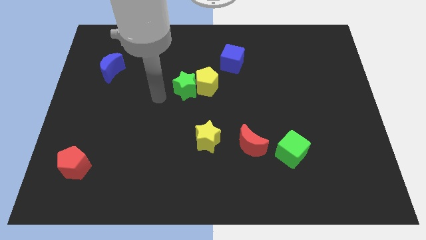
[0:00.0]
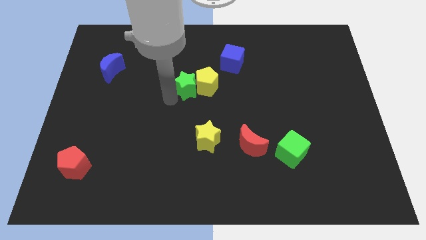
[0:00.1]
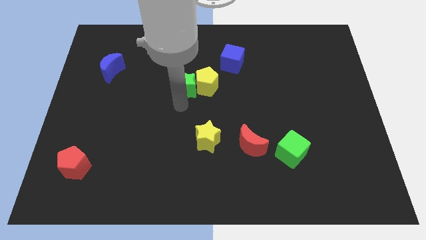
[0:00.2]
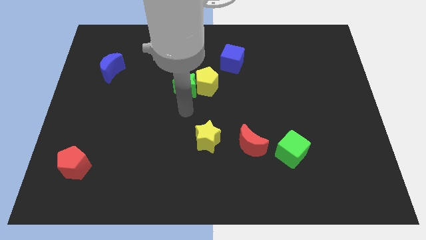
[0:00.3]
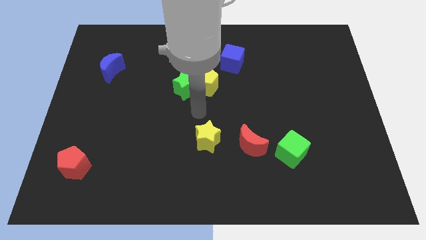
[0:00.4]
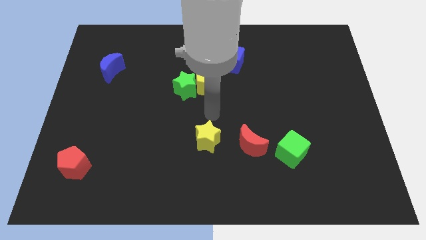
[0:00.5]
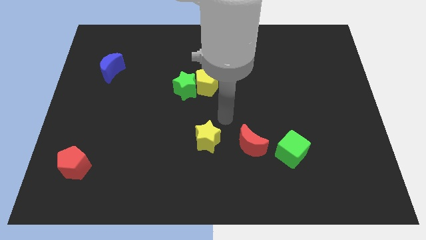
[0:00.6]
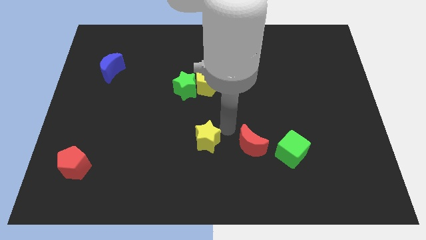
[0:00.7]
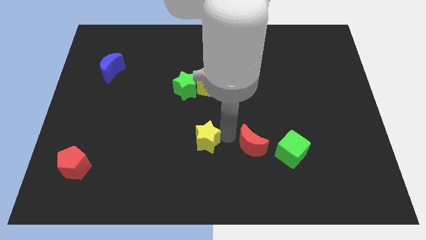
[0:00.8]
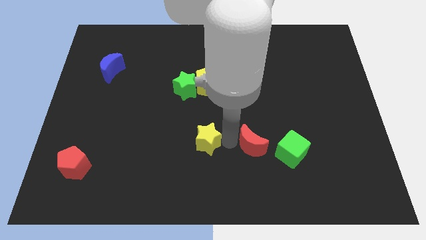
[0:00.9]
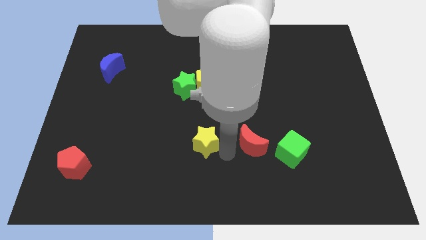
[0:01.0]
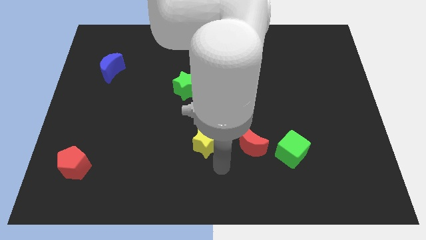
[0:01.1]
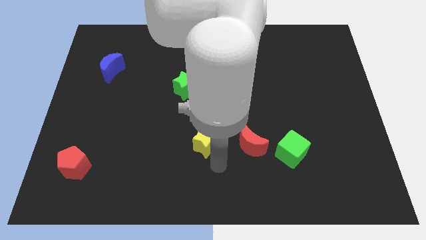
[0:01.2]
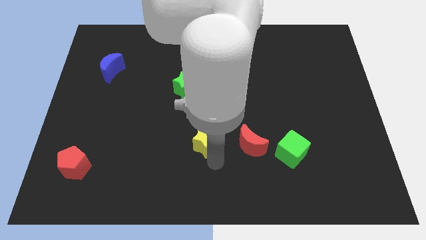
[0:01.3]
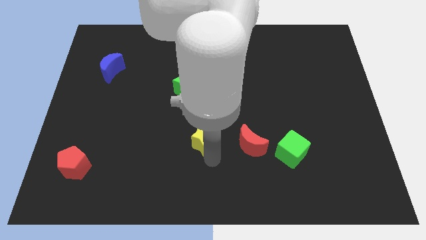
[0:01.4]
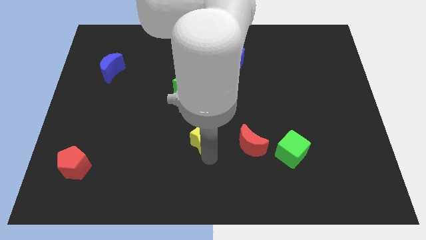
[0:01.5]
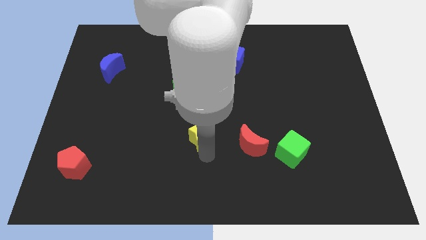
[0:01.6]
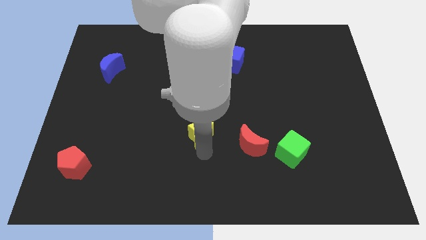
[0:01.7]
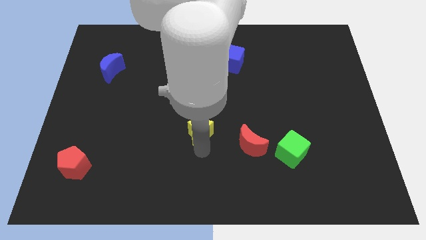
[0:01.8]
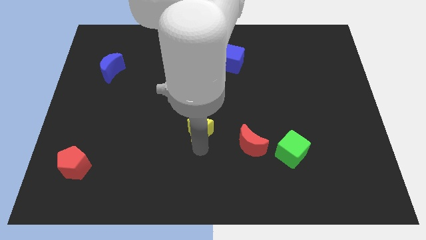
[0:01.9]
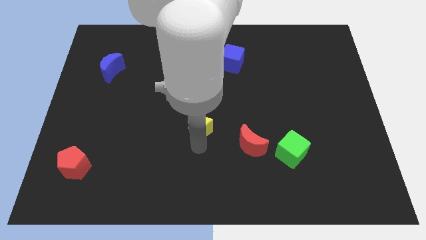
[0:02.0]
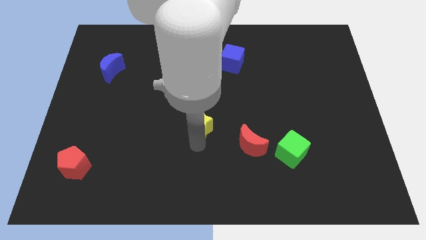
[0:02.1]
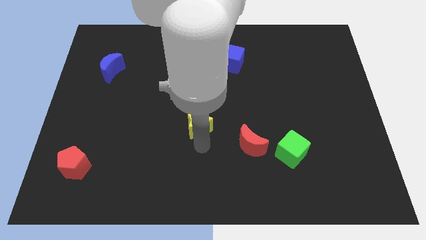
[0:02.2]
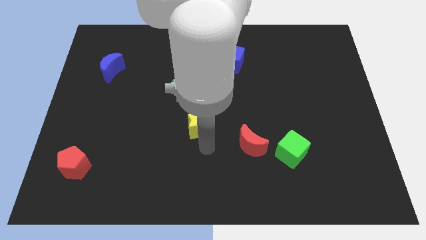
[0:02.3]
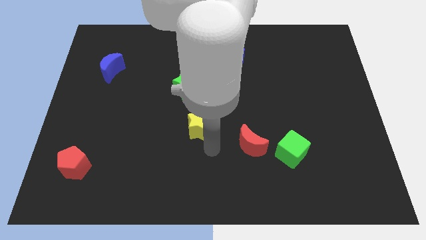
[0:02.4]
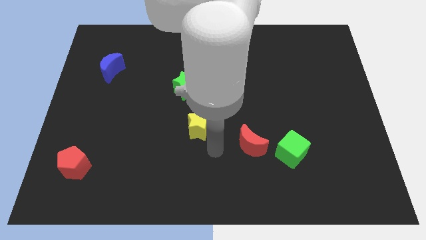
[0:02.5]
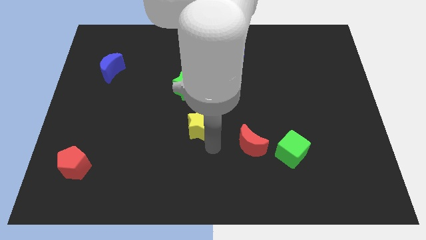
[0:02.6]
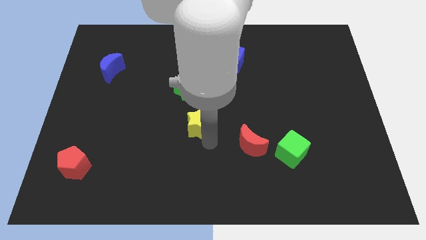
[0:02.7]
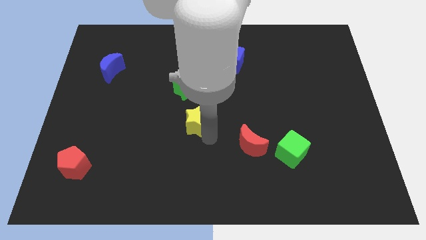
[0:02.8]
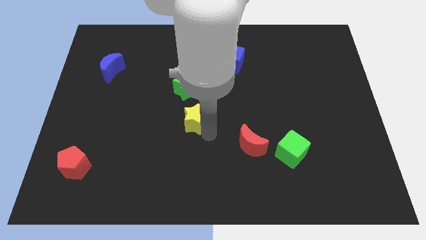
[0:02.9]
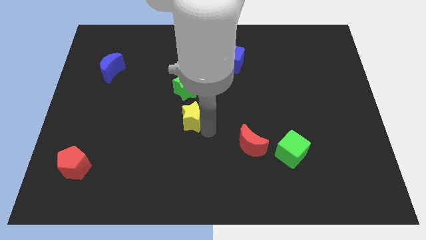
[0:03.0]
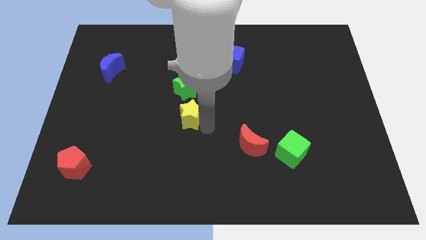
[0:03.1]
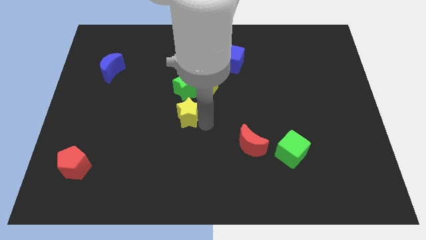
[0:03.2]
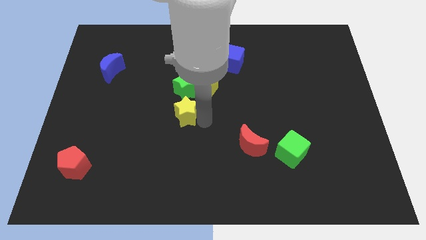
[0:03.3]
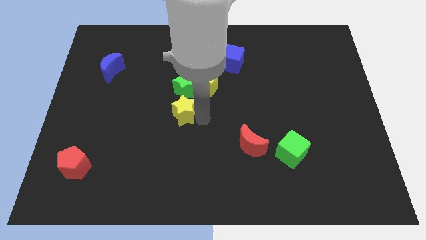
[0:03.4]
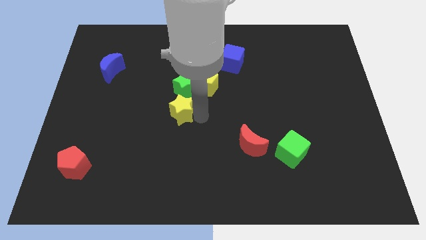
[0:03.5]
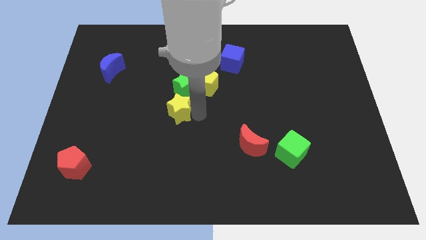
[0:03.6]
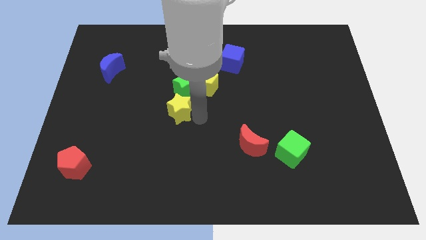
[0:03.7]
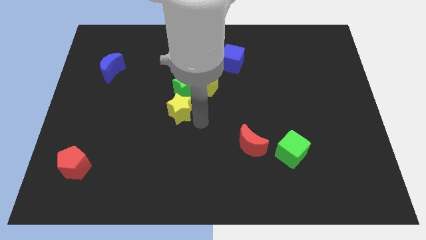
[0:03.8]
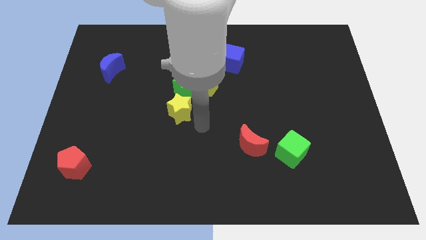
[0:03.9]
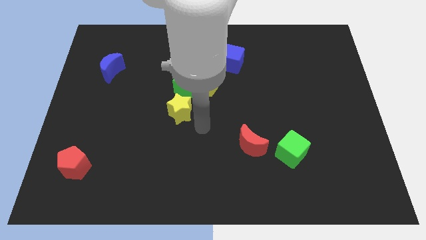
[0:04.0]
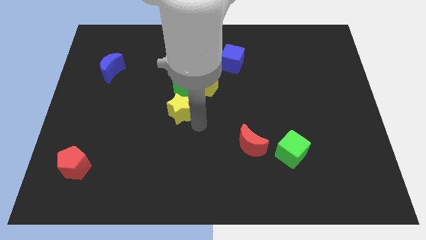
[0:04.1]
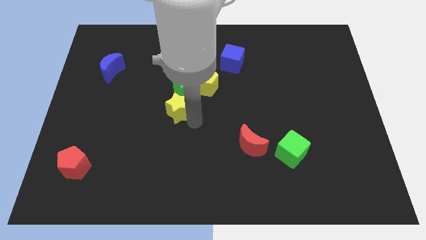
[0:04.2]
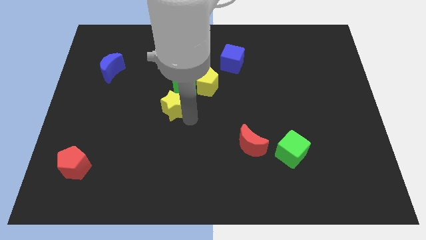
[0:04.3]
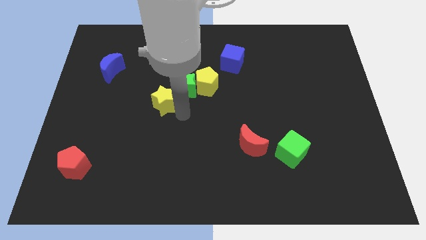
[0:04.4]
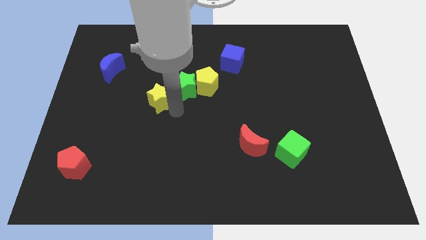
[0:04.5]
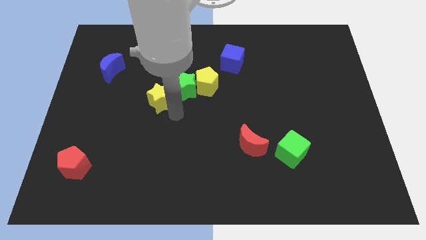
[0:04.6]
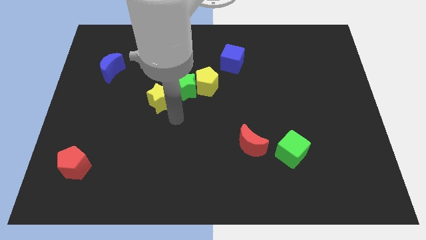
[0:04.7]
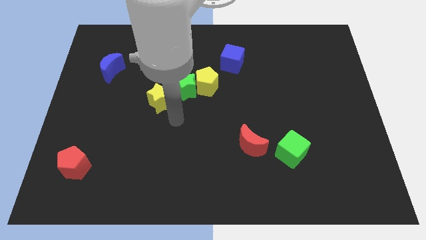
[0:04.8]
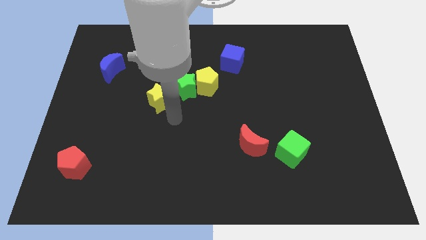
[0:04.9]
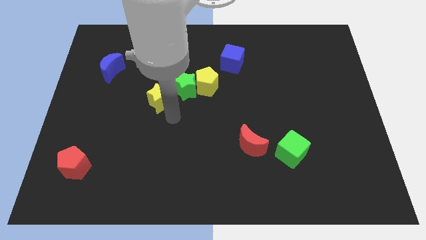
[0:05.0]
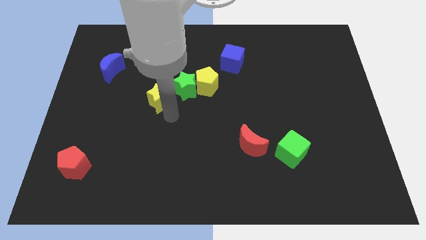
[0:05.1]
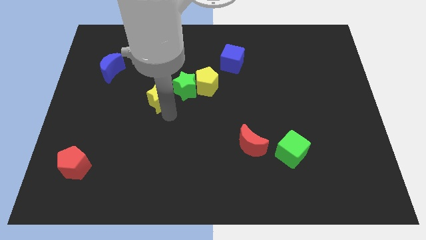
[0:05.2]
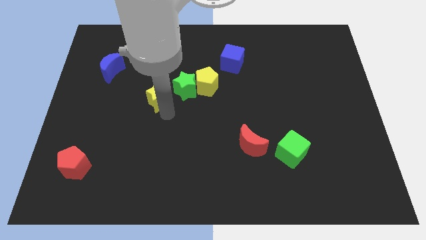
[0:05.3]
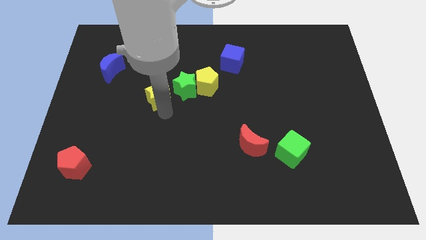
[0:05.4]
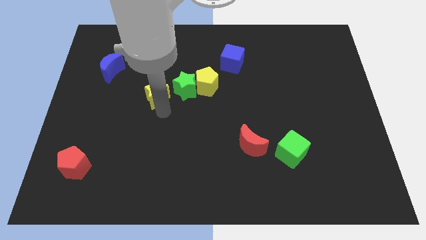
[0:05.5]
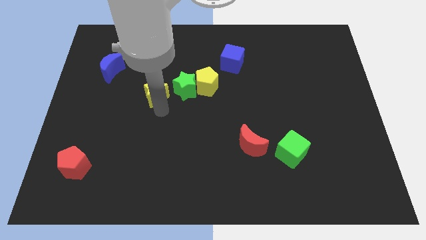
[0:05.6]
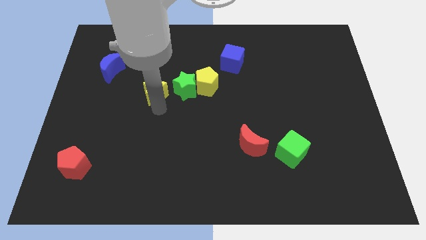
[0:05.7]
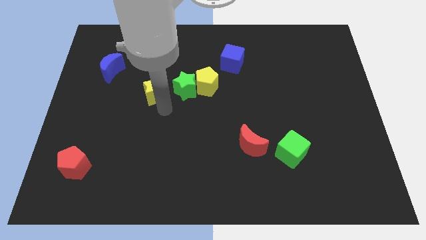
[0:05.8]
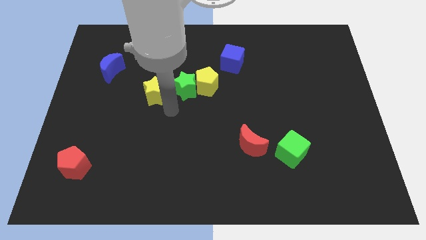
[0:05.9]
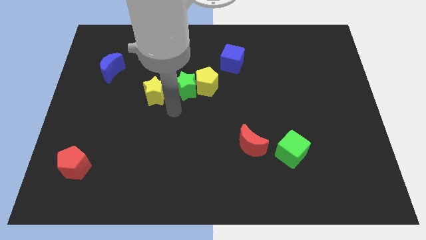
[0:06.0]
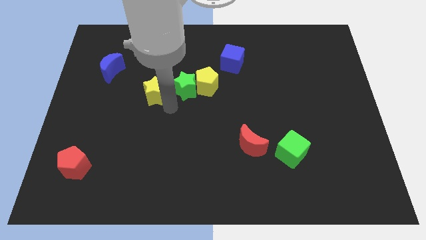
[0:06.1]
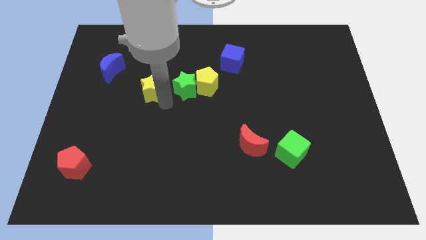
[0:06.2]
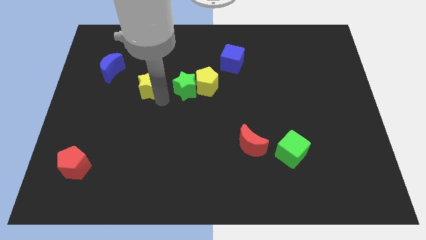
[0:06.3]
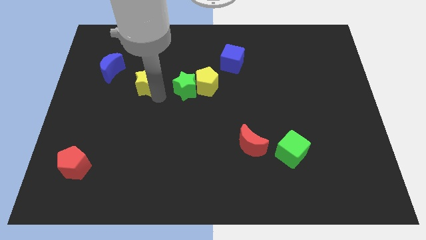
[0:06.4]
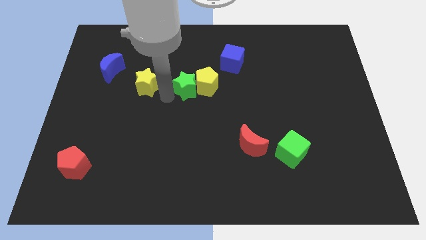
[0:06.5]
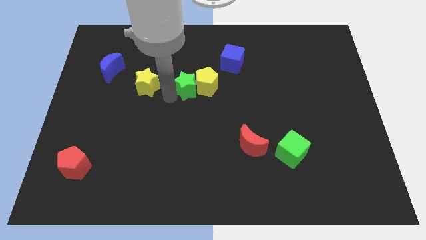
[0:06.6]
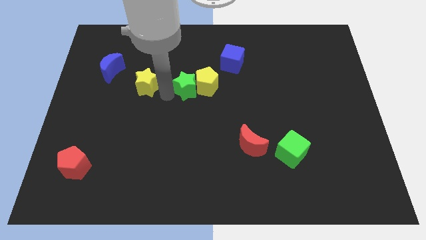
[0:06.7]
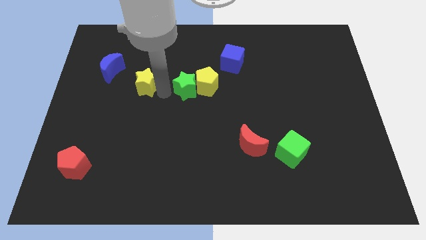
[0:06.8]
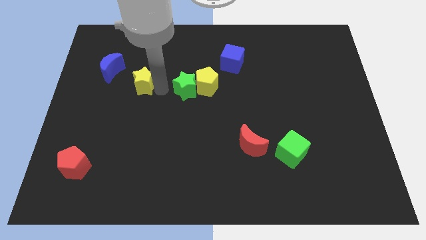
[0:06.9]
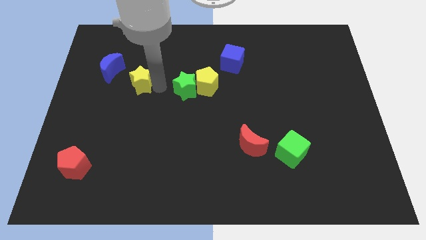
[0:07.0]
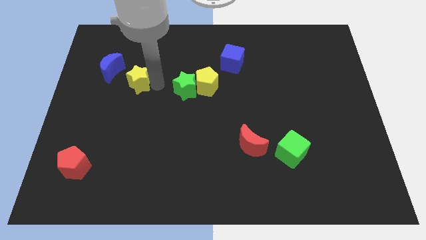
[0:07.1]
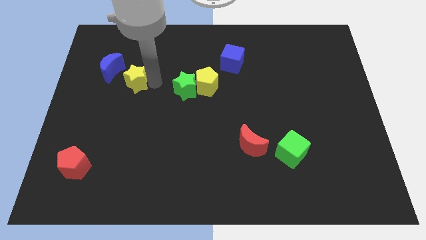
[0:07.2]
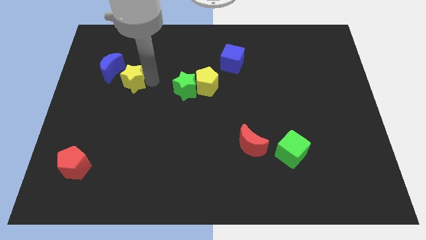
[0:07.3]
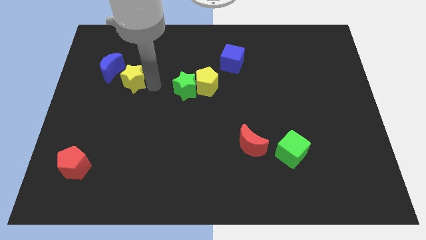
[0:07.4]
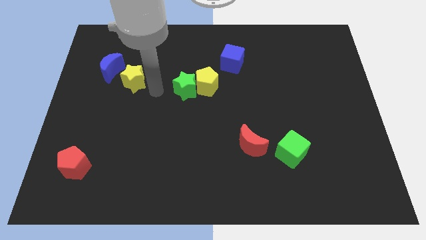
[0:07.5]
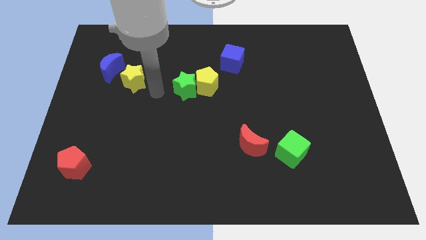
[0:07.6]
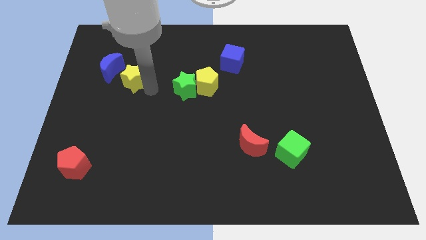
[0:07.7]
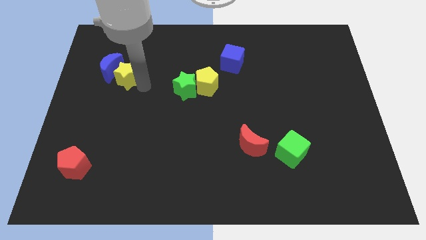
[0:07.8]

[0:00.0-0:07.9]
push the yellow star to the blue moon
